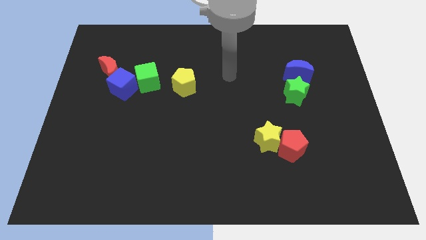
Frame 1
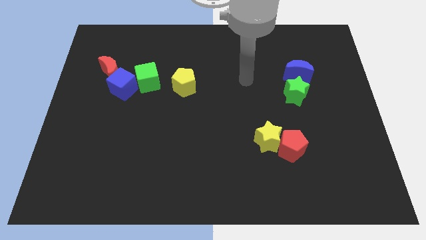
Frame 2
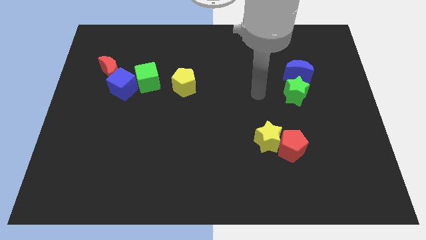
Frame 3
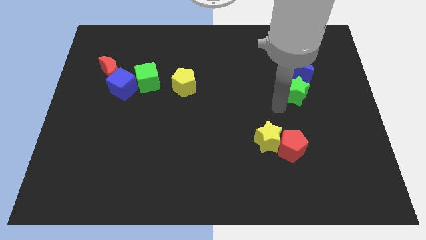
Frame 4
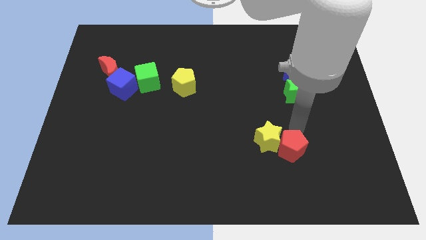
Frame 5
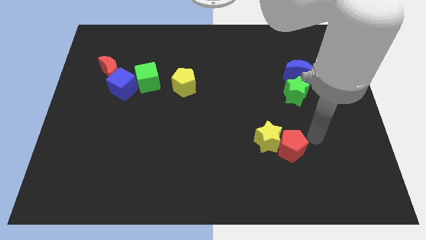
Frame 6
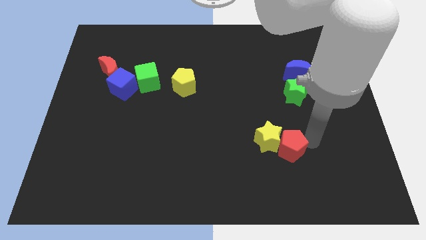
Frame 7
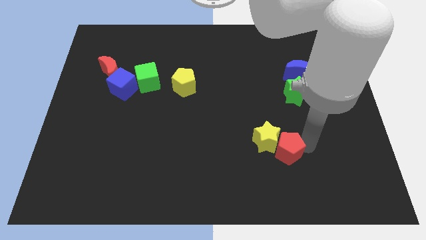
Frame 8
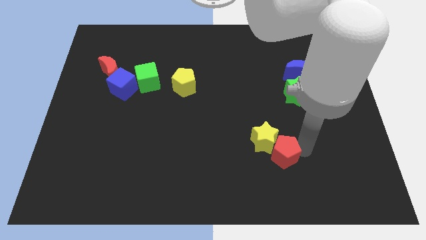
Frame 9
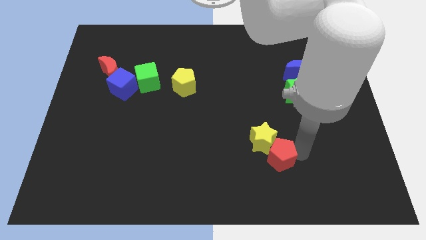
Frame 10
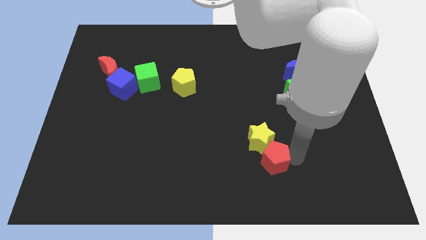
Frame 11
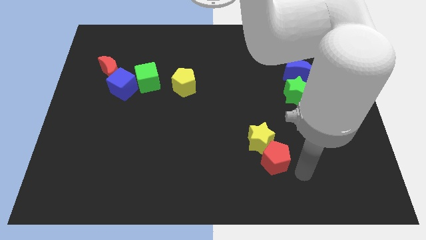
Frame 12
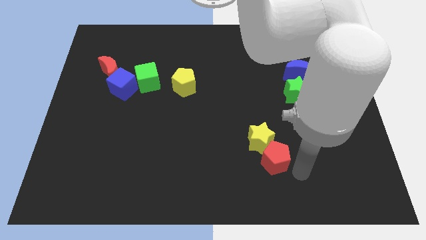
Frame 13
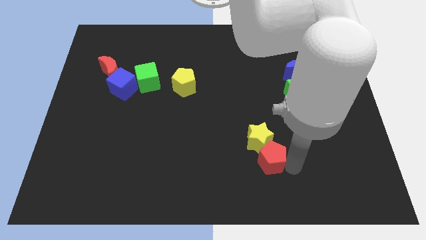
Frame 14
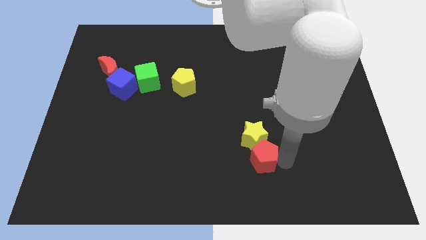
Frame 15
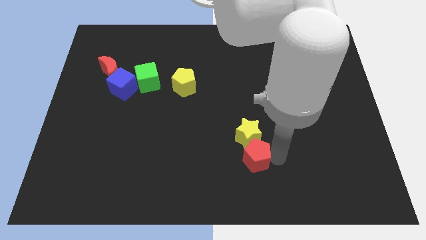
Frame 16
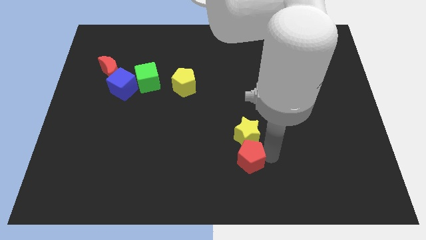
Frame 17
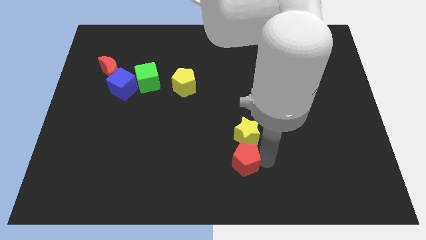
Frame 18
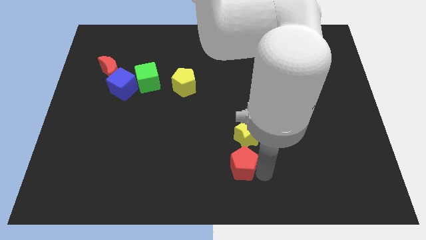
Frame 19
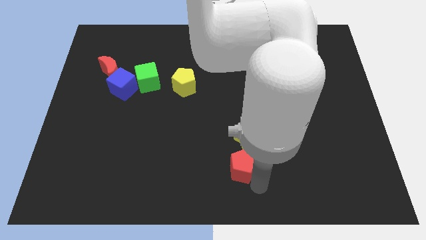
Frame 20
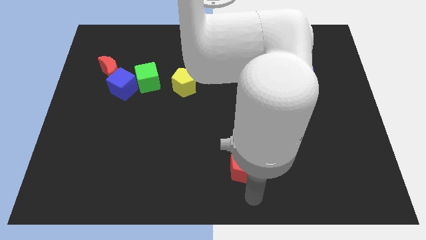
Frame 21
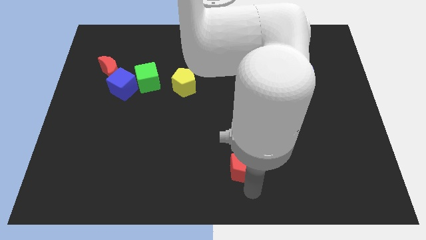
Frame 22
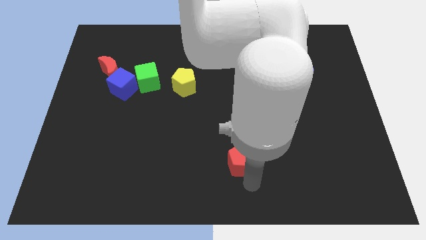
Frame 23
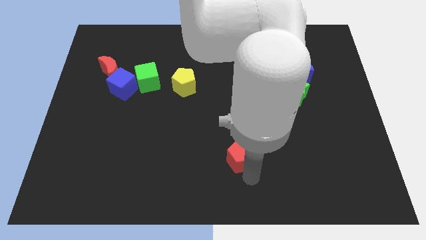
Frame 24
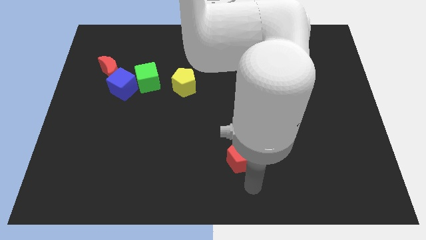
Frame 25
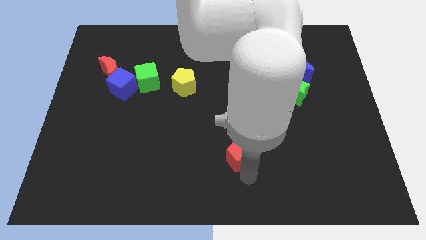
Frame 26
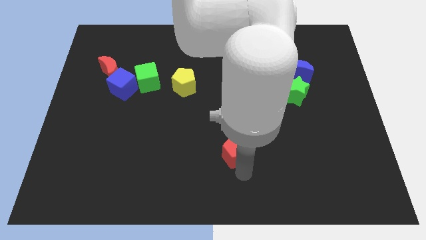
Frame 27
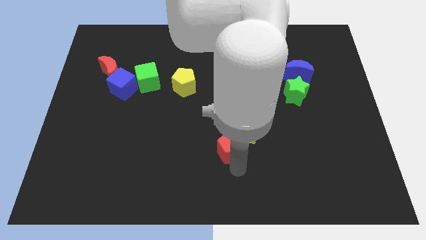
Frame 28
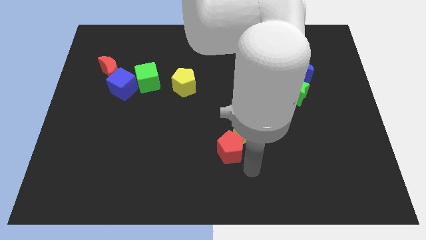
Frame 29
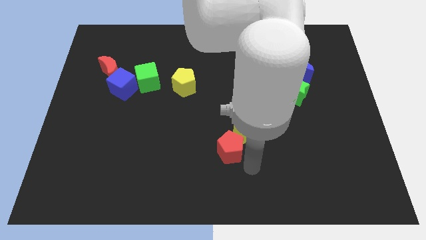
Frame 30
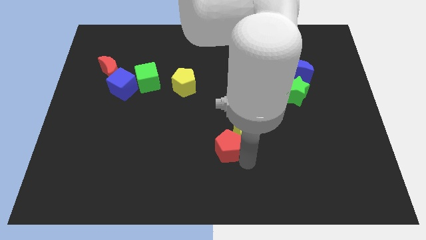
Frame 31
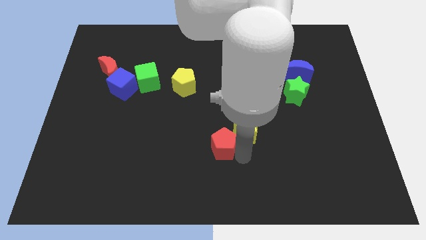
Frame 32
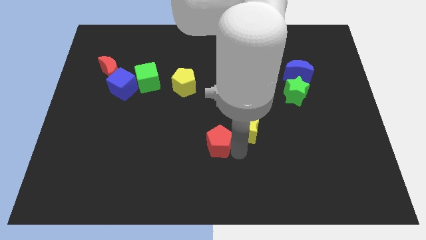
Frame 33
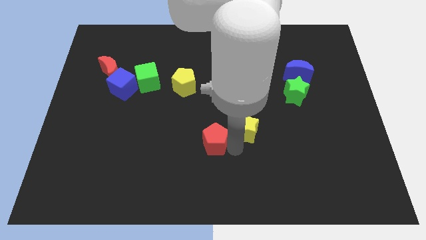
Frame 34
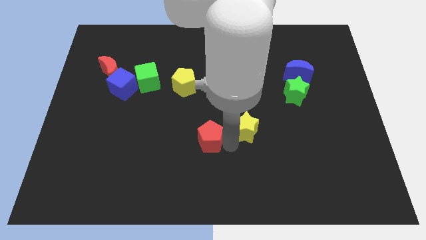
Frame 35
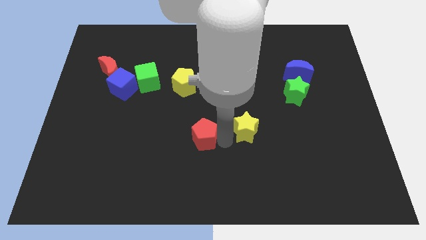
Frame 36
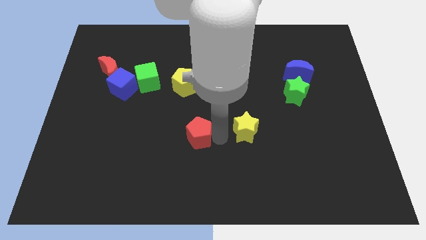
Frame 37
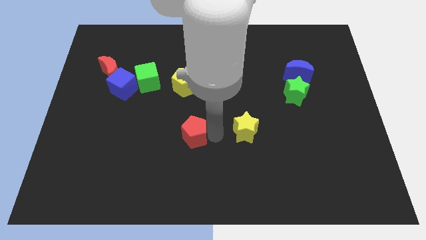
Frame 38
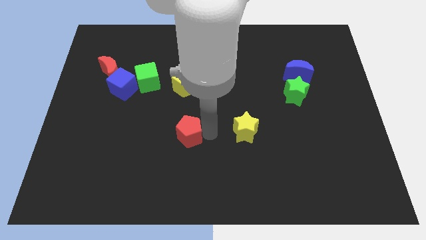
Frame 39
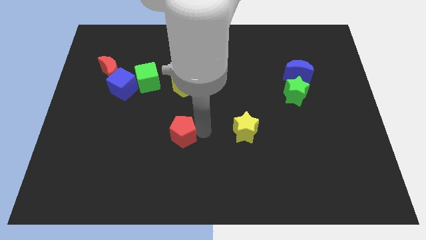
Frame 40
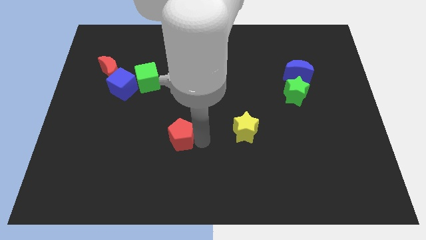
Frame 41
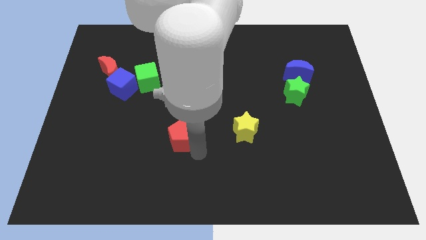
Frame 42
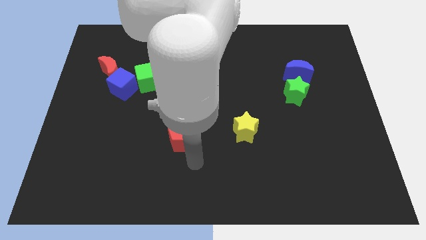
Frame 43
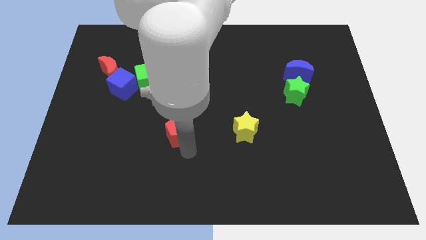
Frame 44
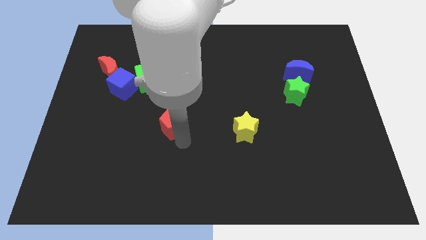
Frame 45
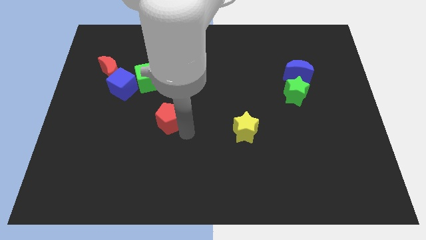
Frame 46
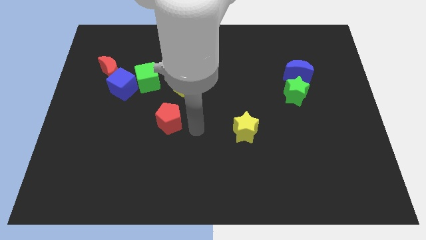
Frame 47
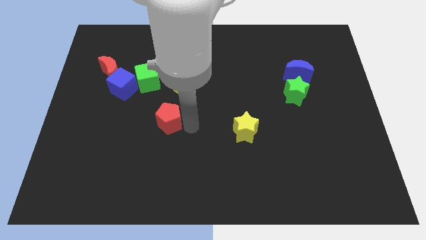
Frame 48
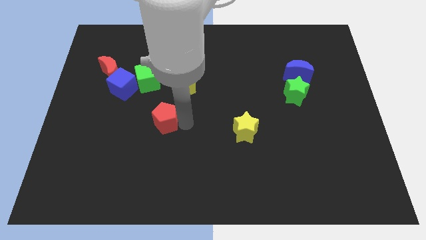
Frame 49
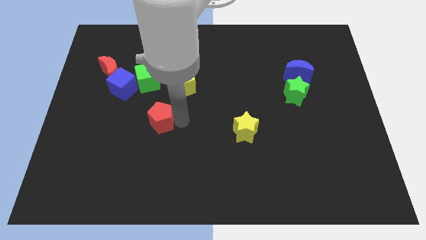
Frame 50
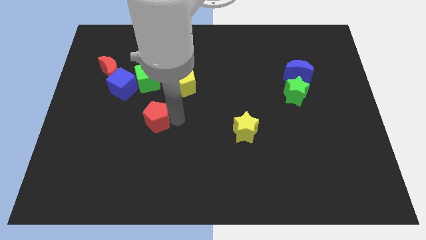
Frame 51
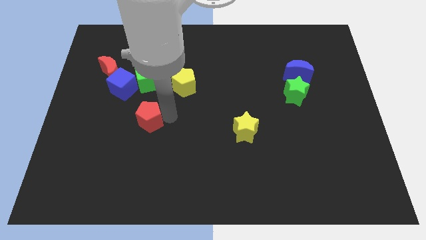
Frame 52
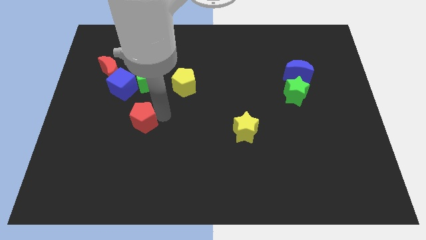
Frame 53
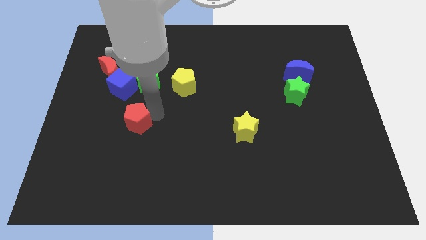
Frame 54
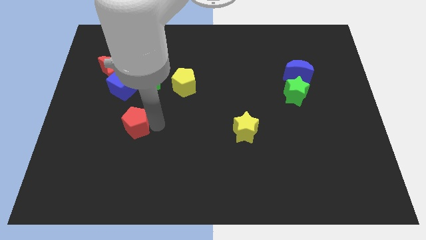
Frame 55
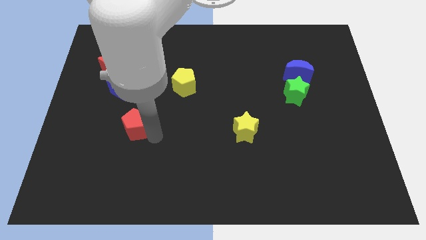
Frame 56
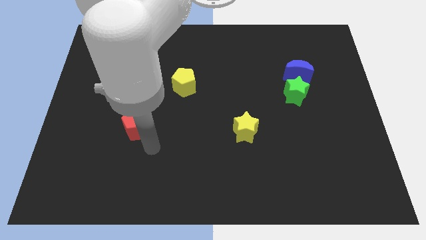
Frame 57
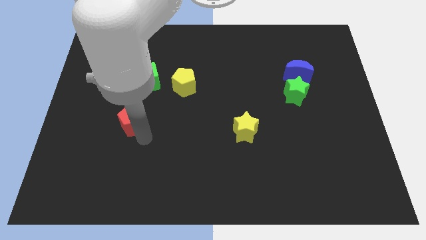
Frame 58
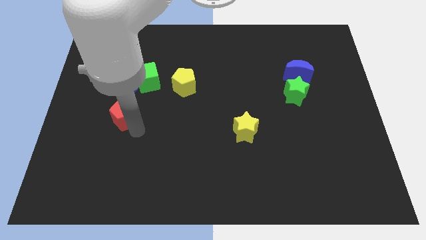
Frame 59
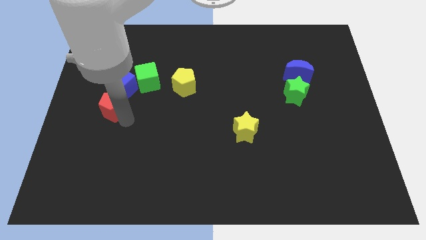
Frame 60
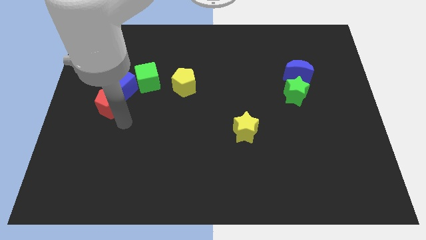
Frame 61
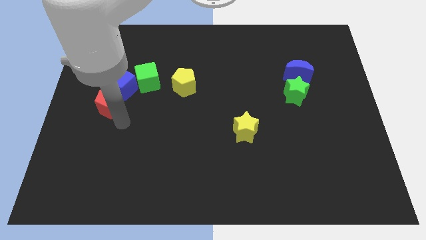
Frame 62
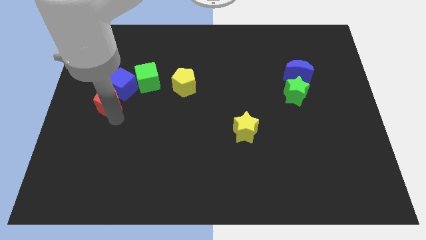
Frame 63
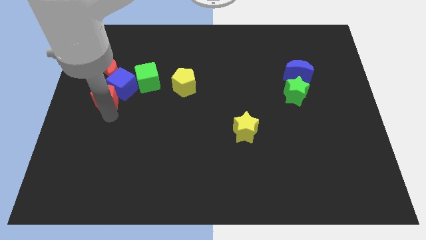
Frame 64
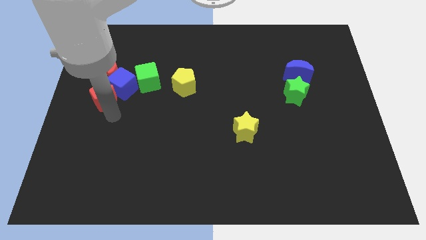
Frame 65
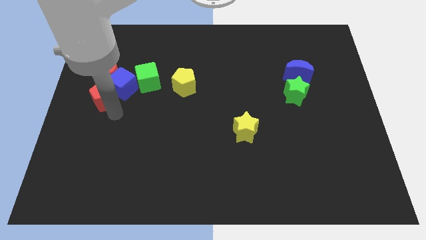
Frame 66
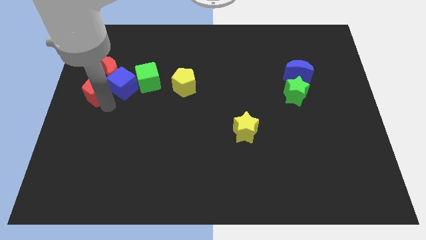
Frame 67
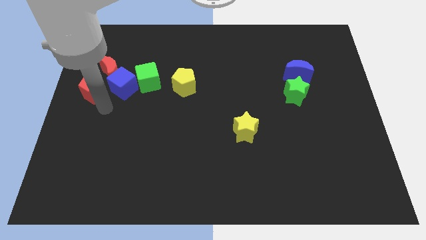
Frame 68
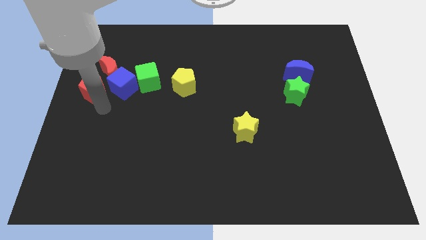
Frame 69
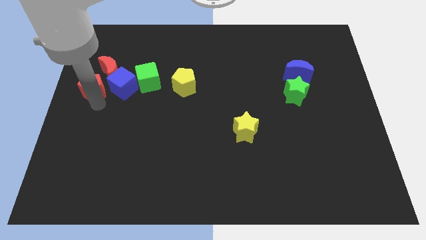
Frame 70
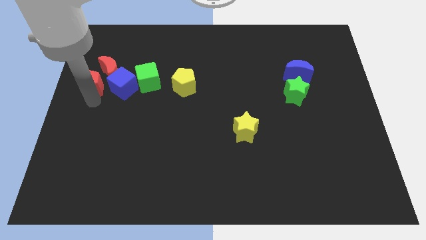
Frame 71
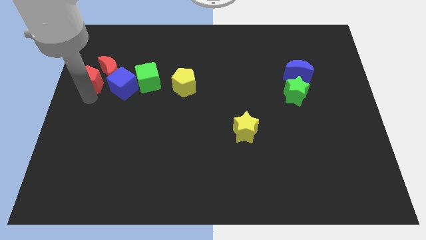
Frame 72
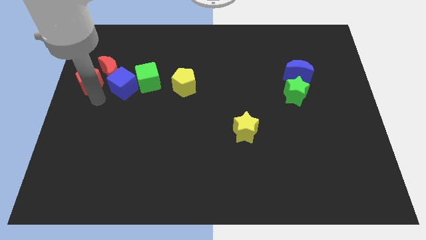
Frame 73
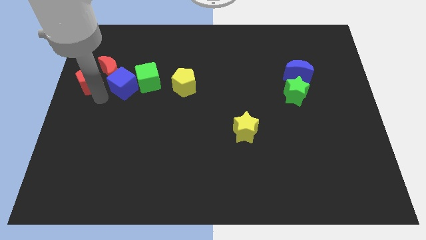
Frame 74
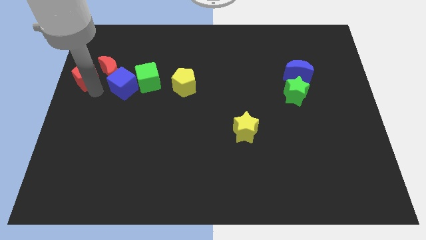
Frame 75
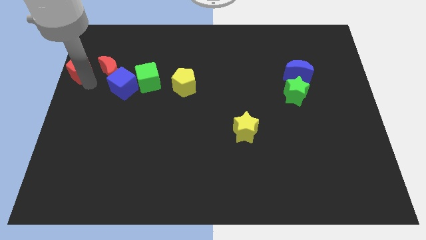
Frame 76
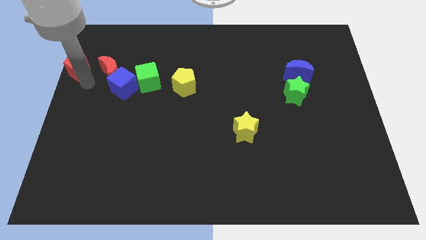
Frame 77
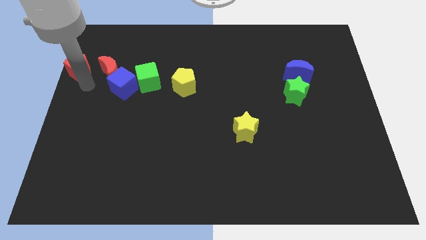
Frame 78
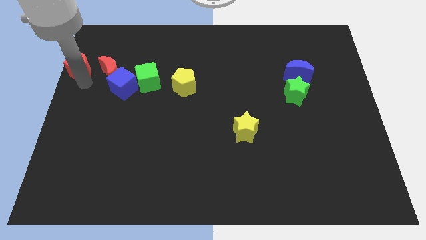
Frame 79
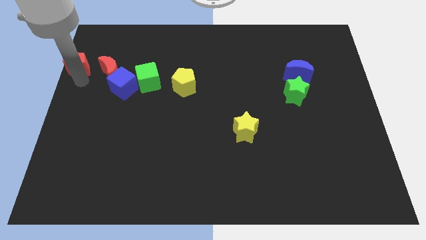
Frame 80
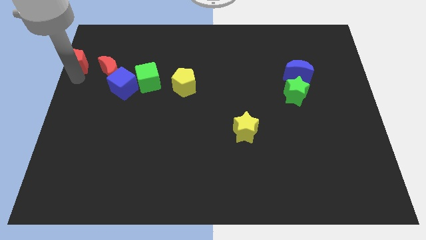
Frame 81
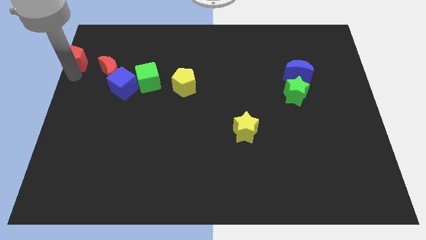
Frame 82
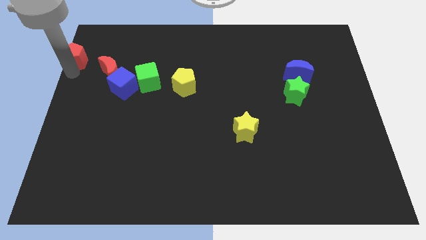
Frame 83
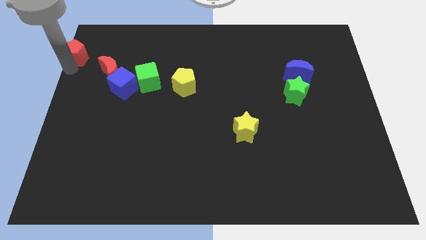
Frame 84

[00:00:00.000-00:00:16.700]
slide the red pentagon to the top left corner
